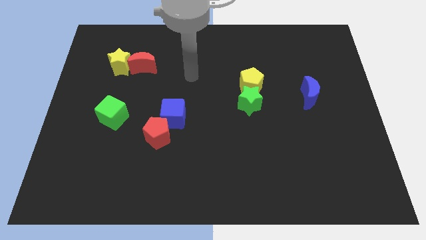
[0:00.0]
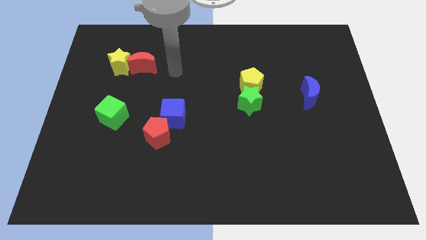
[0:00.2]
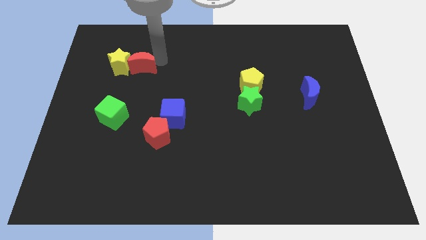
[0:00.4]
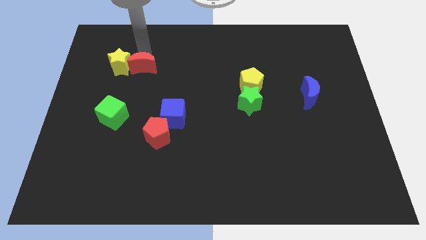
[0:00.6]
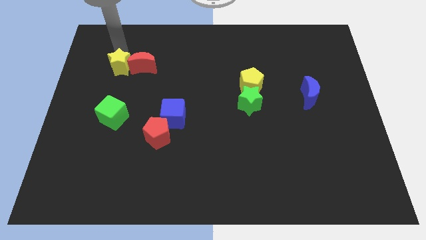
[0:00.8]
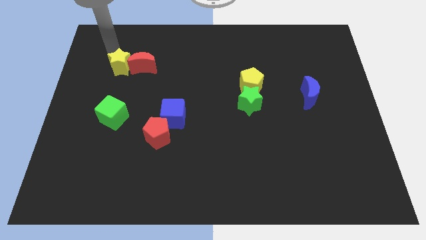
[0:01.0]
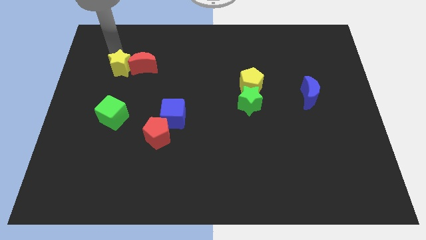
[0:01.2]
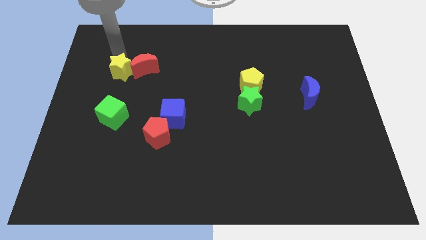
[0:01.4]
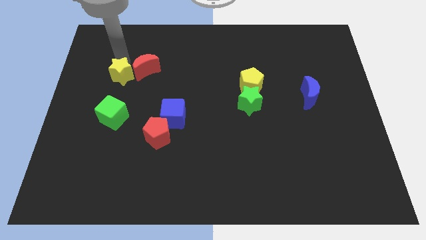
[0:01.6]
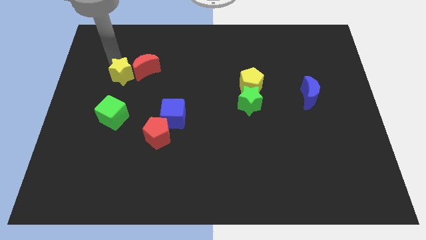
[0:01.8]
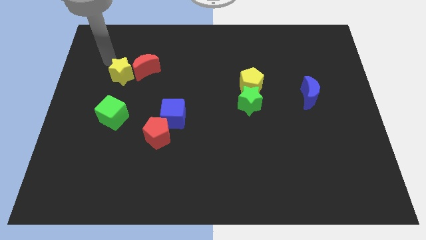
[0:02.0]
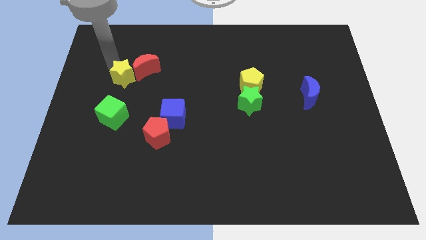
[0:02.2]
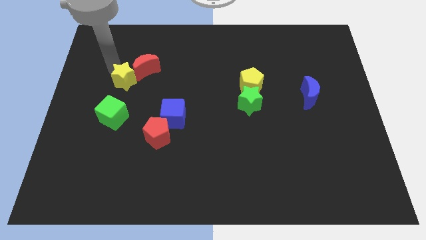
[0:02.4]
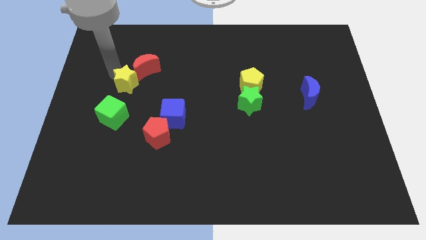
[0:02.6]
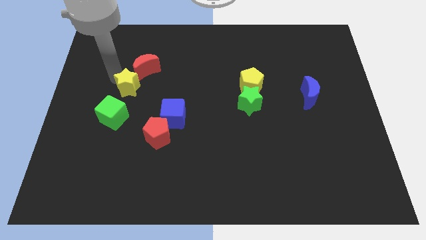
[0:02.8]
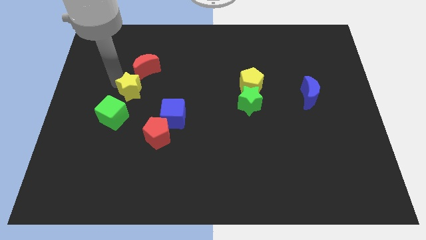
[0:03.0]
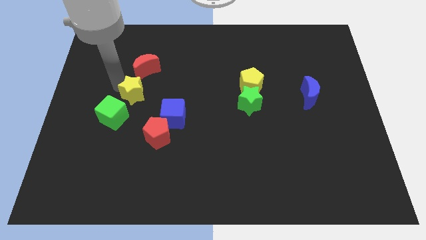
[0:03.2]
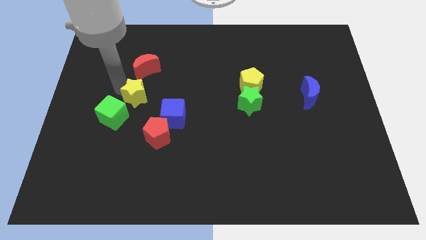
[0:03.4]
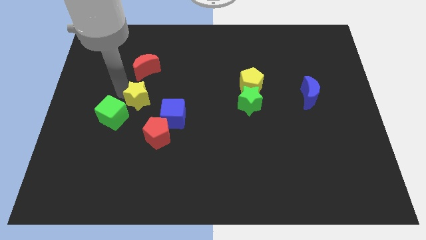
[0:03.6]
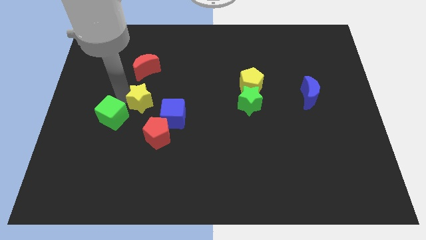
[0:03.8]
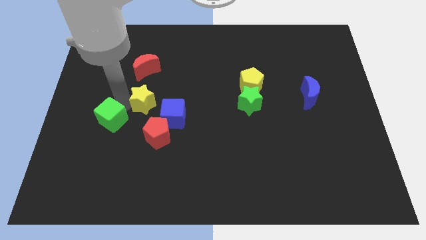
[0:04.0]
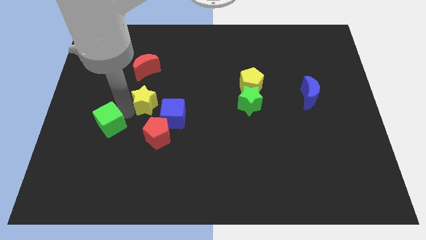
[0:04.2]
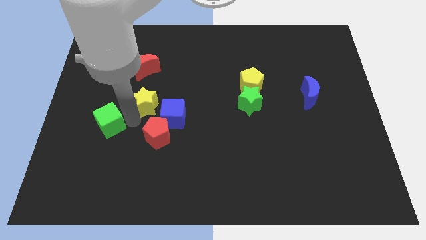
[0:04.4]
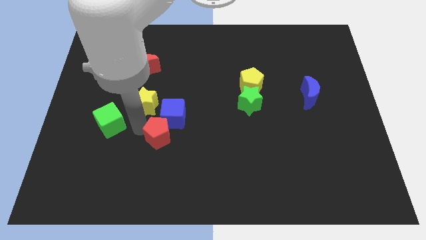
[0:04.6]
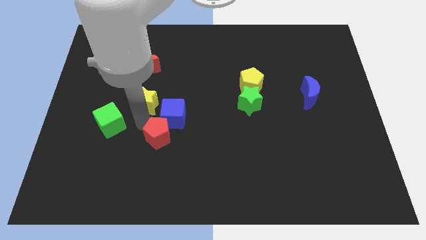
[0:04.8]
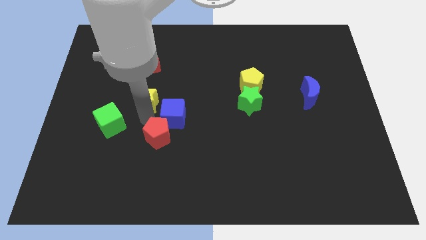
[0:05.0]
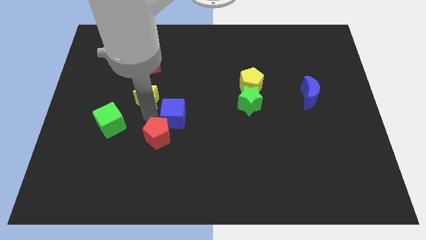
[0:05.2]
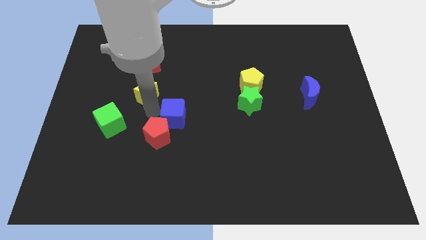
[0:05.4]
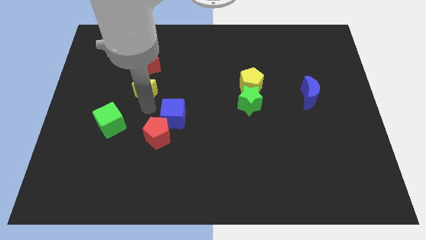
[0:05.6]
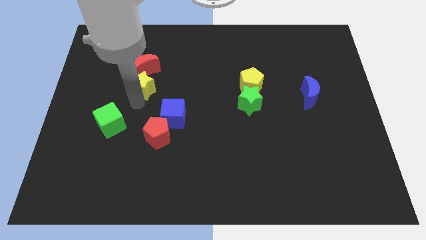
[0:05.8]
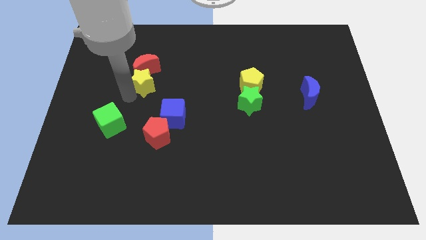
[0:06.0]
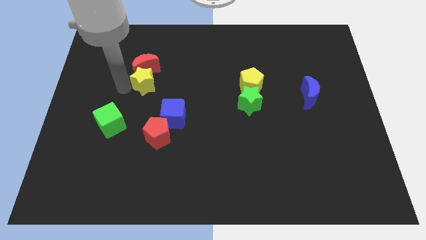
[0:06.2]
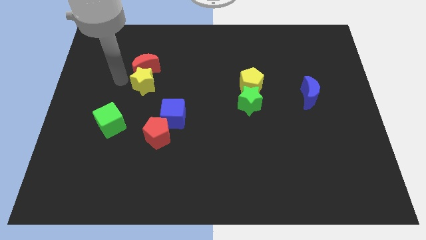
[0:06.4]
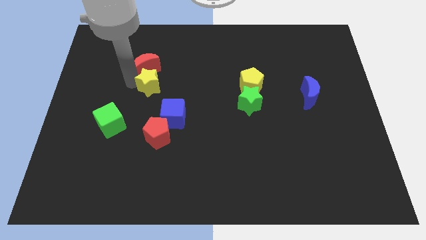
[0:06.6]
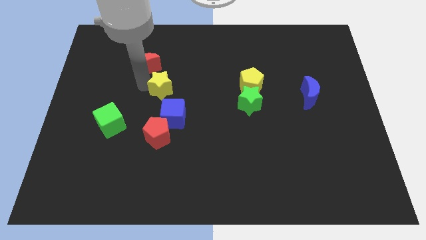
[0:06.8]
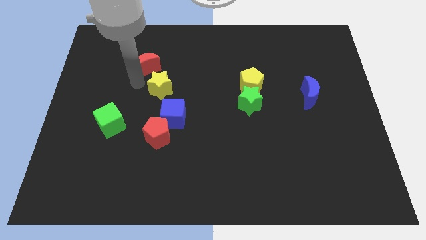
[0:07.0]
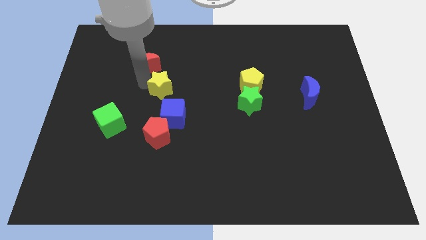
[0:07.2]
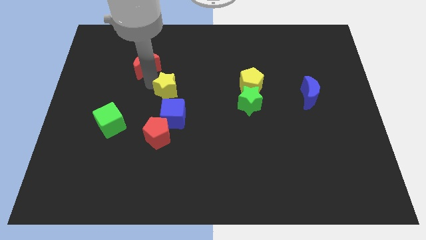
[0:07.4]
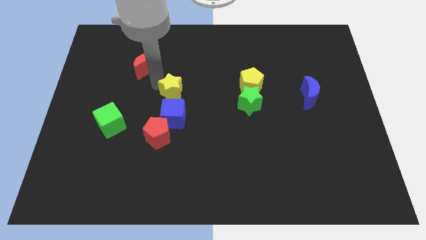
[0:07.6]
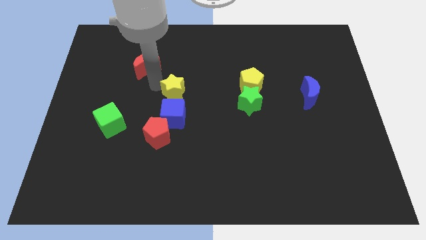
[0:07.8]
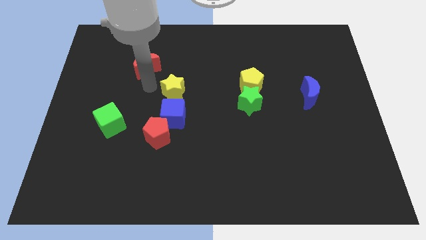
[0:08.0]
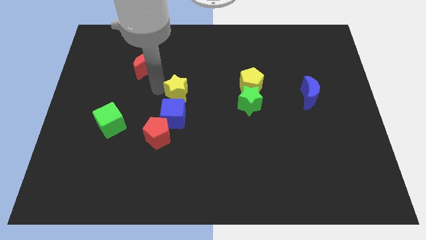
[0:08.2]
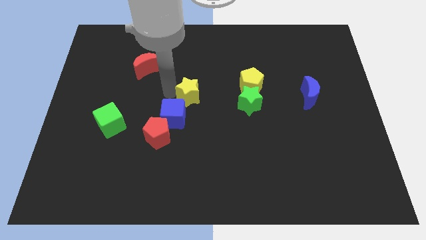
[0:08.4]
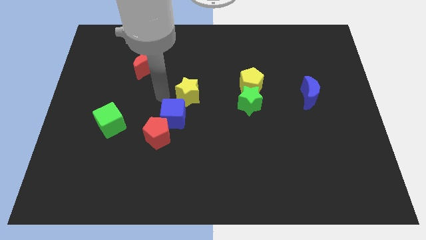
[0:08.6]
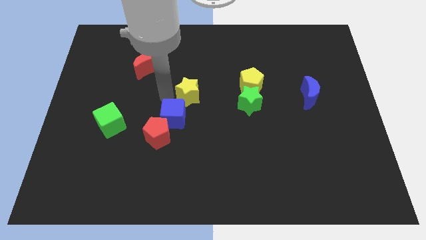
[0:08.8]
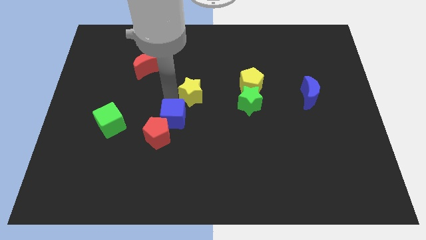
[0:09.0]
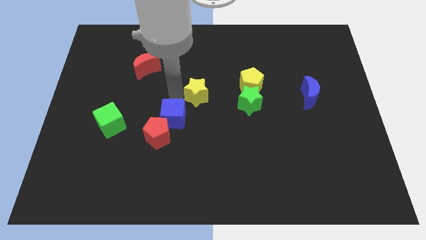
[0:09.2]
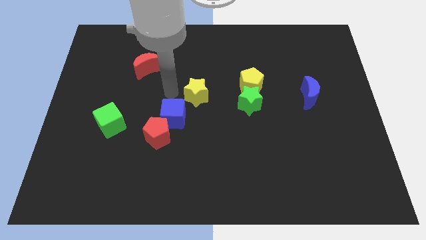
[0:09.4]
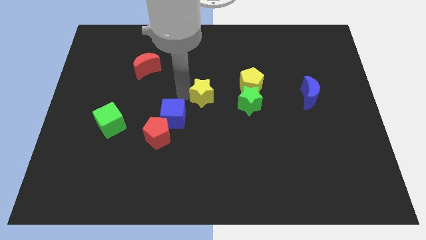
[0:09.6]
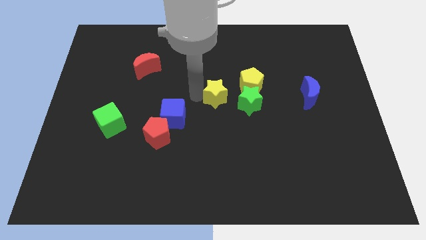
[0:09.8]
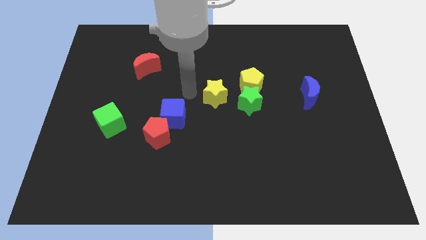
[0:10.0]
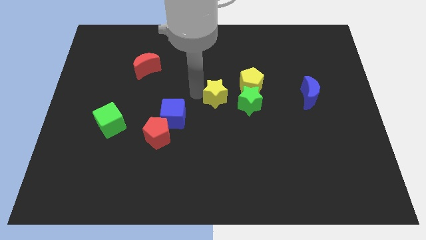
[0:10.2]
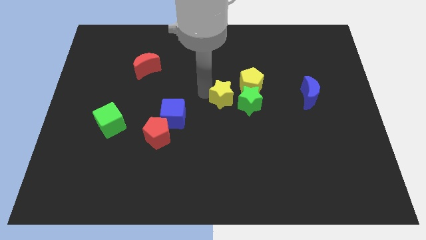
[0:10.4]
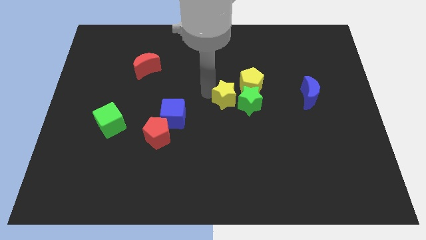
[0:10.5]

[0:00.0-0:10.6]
push the yellow star close to the green star

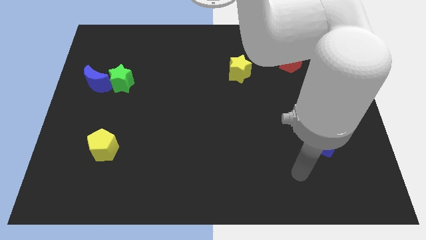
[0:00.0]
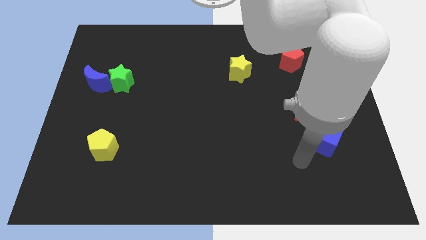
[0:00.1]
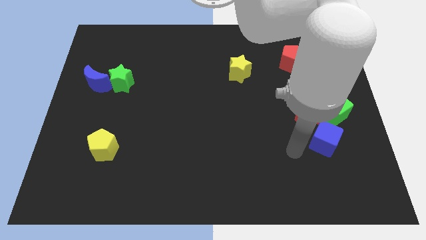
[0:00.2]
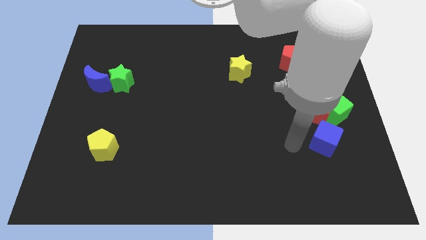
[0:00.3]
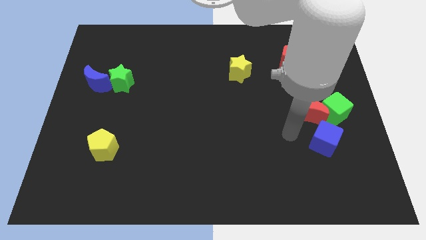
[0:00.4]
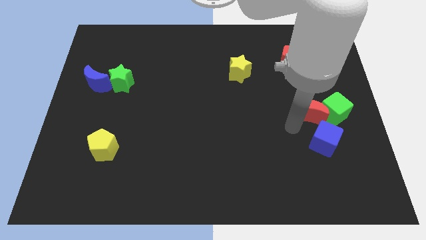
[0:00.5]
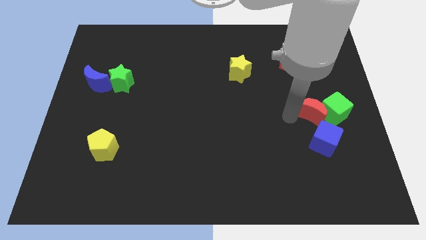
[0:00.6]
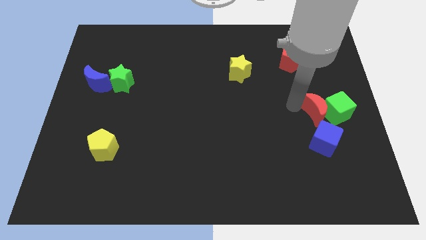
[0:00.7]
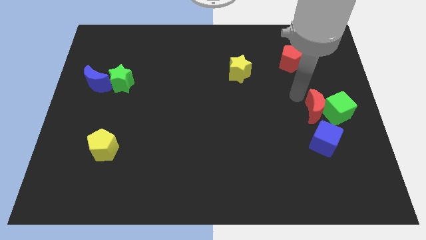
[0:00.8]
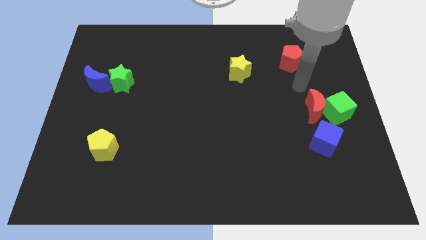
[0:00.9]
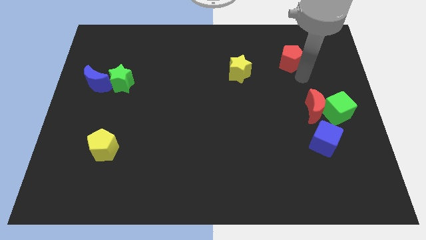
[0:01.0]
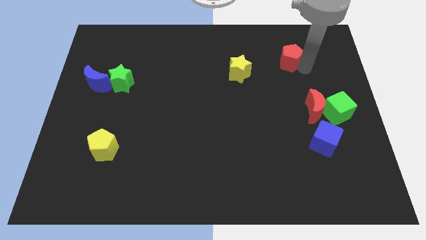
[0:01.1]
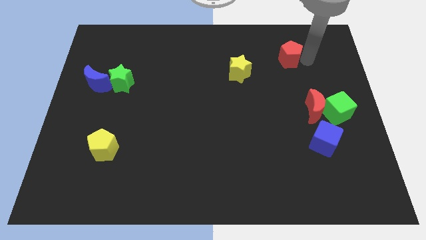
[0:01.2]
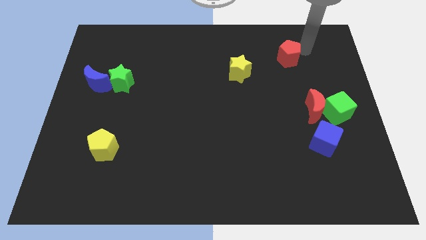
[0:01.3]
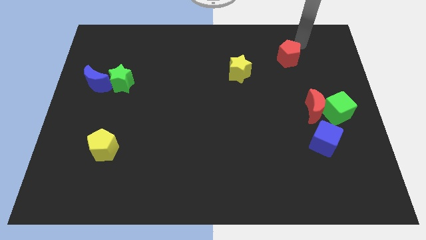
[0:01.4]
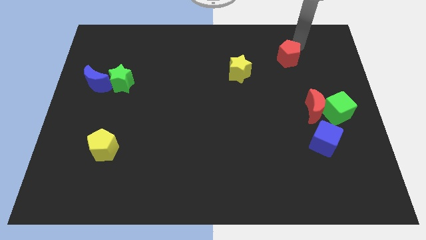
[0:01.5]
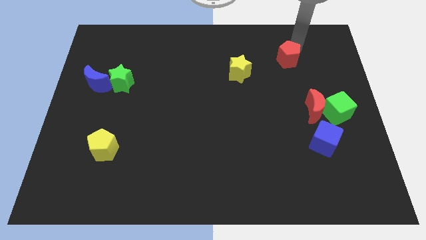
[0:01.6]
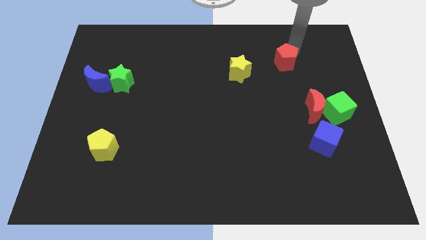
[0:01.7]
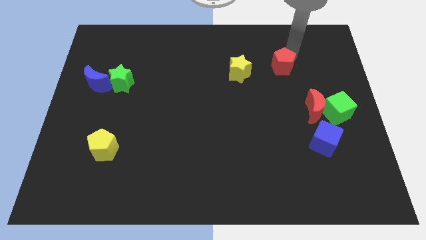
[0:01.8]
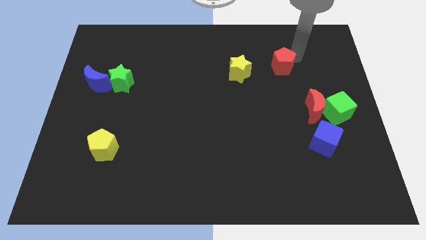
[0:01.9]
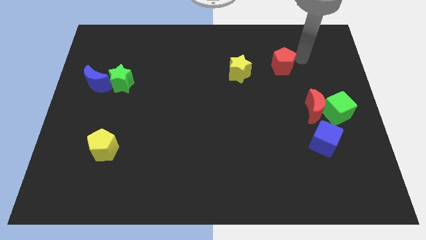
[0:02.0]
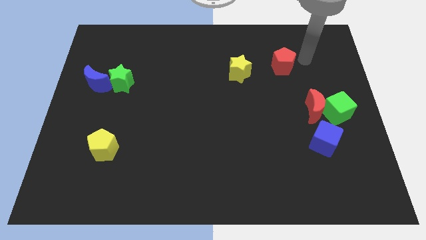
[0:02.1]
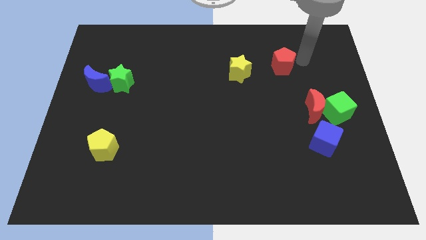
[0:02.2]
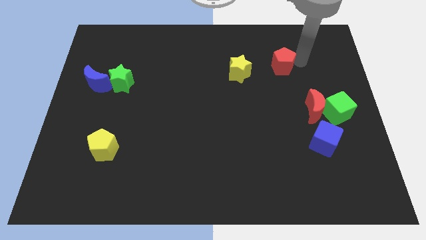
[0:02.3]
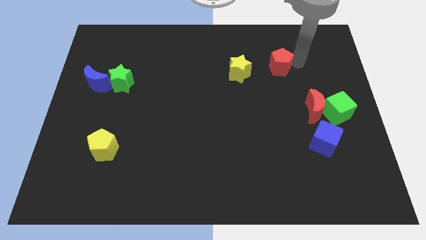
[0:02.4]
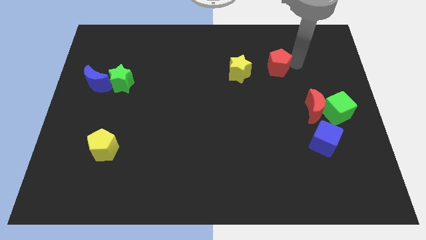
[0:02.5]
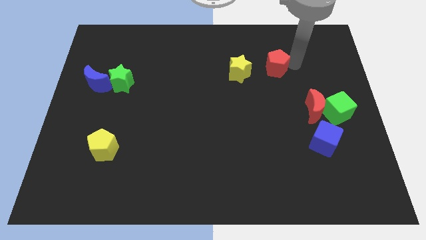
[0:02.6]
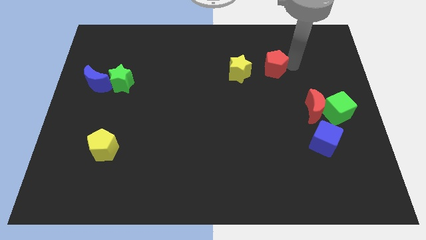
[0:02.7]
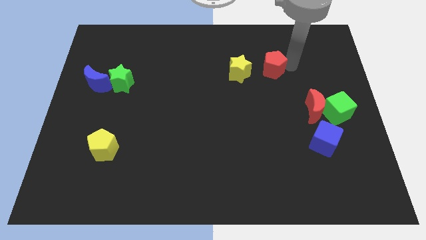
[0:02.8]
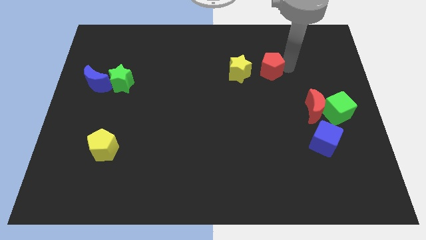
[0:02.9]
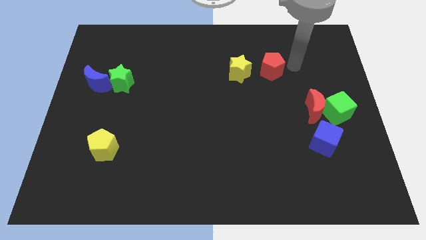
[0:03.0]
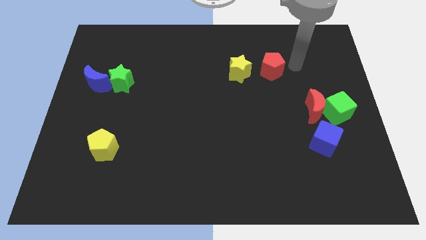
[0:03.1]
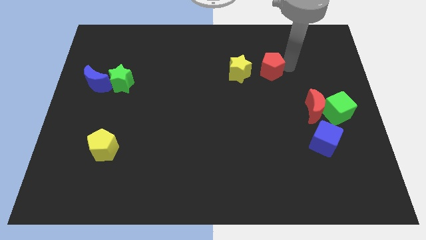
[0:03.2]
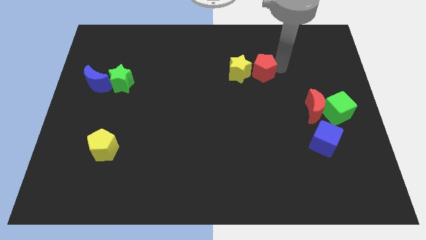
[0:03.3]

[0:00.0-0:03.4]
slide the red pentagon close to the yellow star
